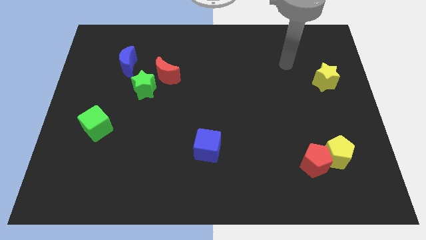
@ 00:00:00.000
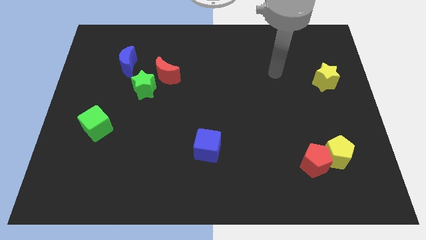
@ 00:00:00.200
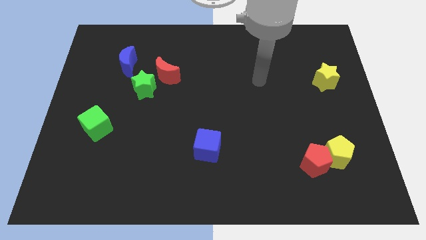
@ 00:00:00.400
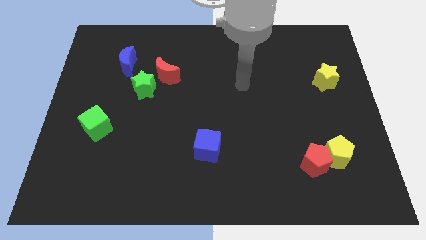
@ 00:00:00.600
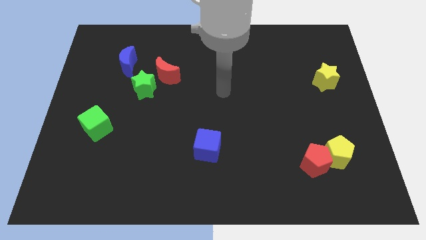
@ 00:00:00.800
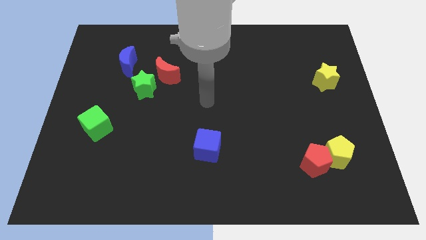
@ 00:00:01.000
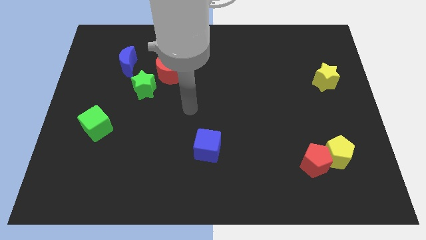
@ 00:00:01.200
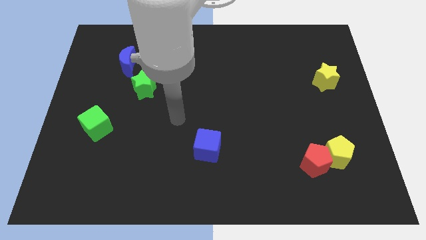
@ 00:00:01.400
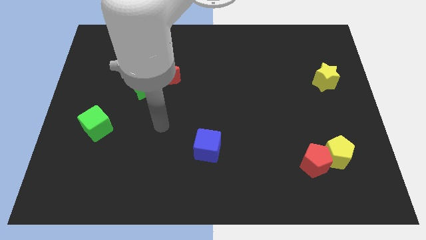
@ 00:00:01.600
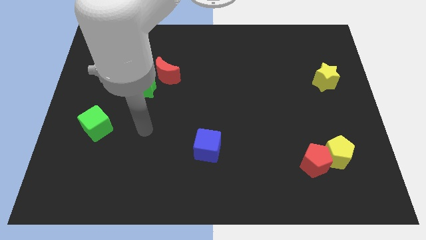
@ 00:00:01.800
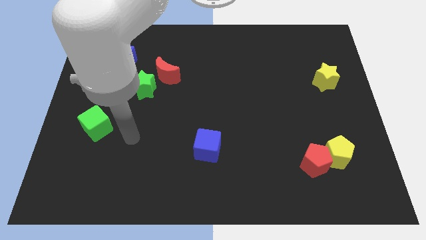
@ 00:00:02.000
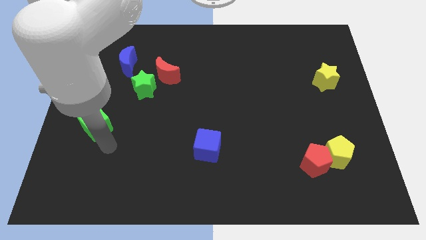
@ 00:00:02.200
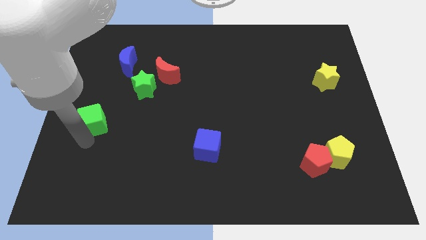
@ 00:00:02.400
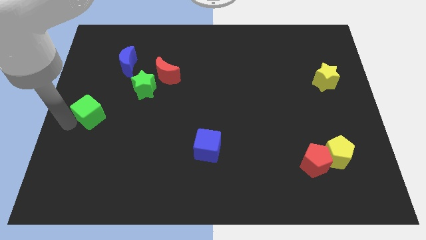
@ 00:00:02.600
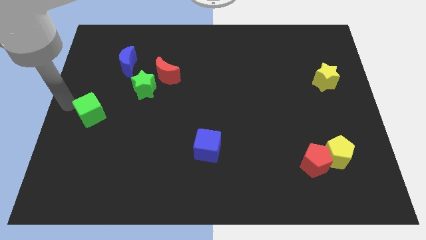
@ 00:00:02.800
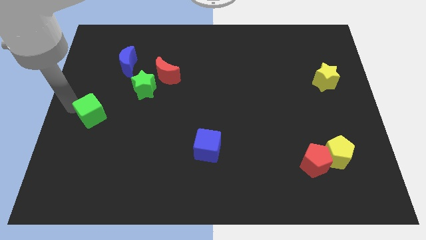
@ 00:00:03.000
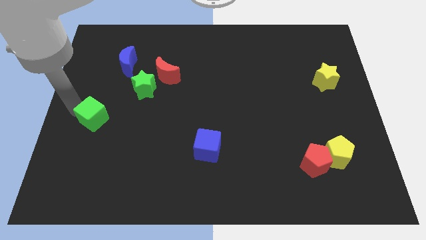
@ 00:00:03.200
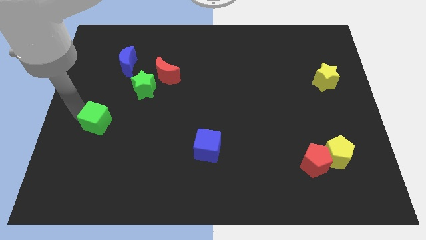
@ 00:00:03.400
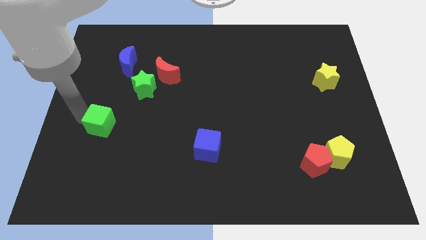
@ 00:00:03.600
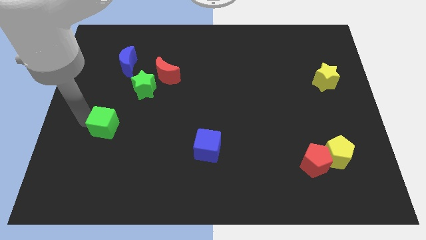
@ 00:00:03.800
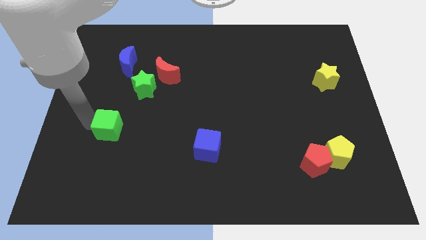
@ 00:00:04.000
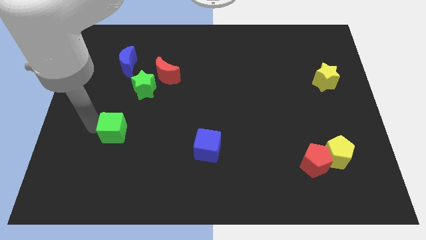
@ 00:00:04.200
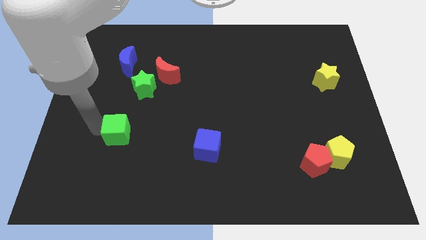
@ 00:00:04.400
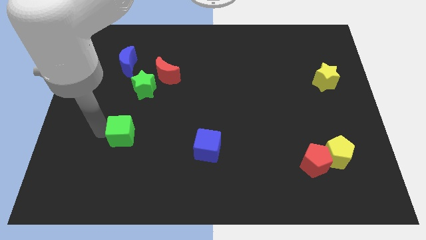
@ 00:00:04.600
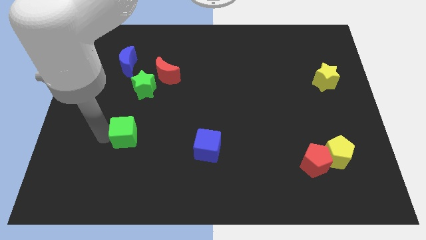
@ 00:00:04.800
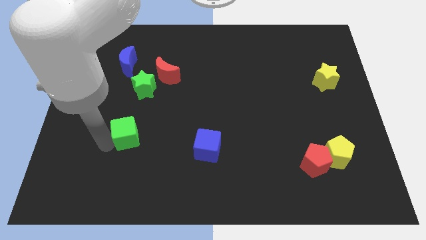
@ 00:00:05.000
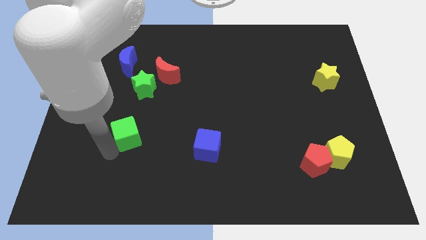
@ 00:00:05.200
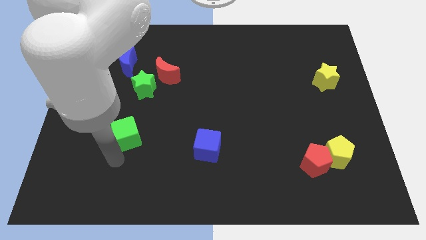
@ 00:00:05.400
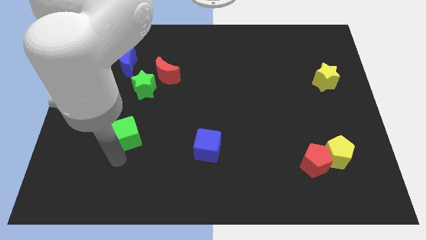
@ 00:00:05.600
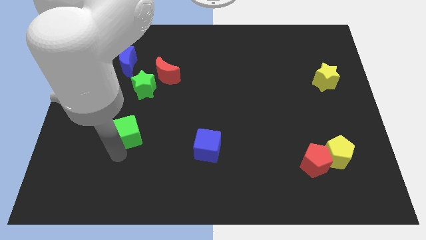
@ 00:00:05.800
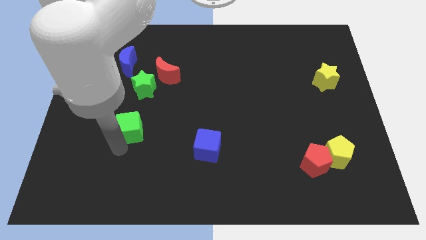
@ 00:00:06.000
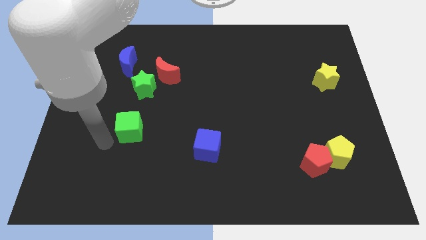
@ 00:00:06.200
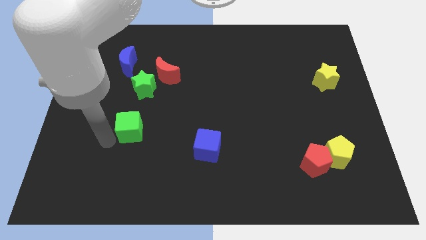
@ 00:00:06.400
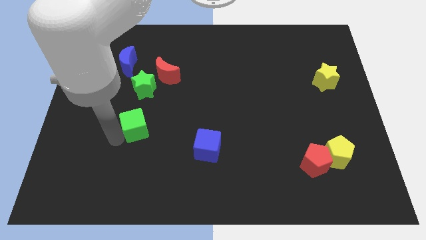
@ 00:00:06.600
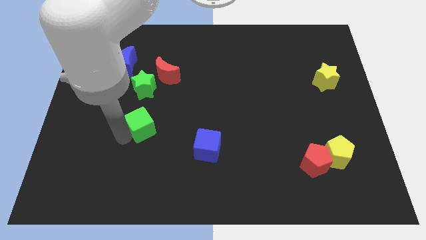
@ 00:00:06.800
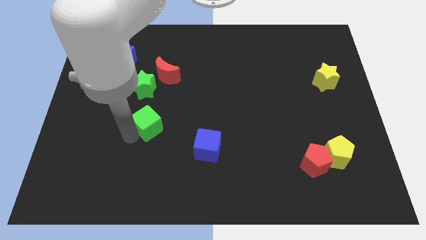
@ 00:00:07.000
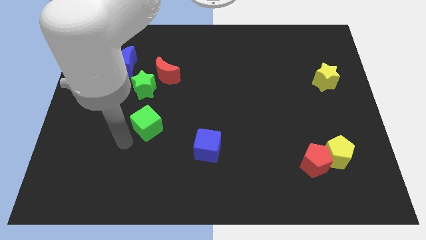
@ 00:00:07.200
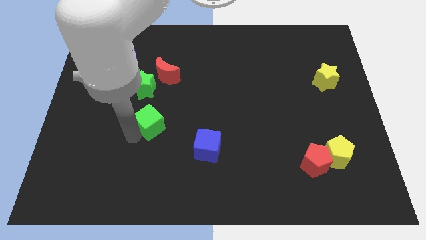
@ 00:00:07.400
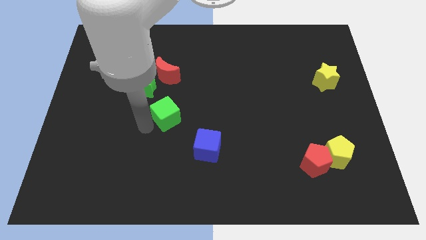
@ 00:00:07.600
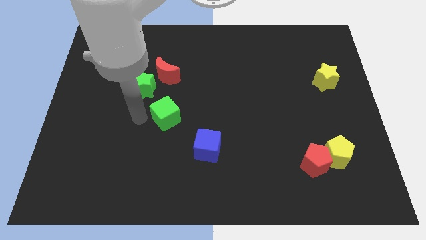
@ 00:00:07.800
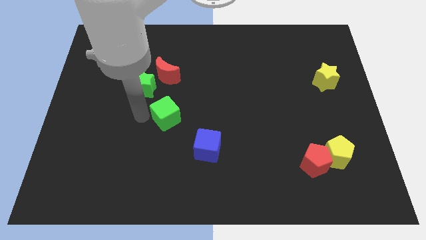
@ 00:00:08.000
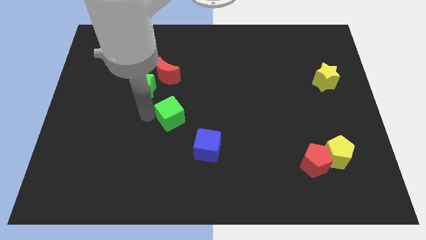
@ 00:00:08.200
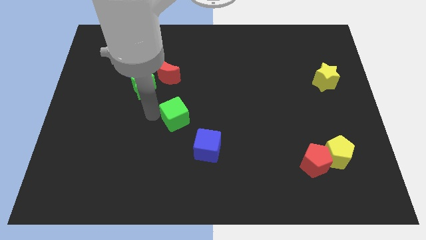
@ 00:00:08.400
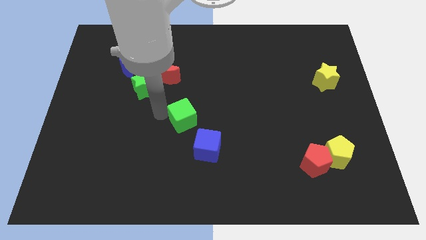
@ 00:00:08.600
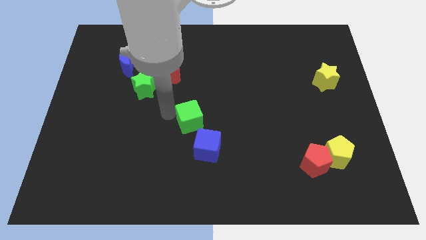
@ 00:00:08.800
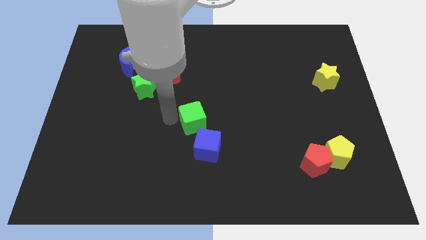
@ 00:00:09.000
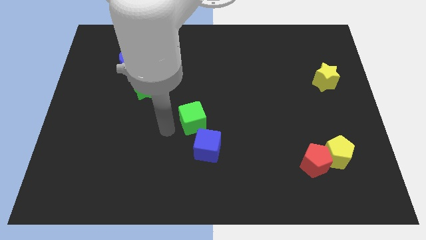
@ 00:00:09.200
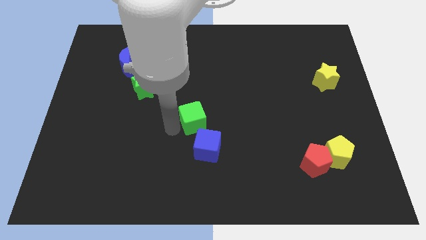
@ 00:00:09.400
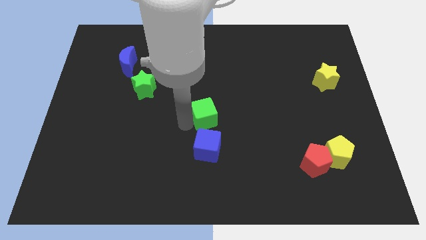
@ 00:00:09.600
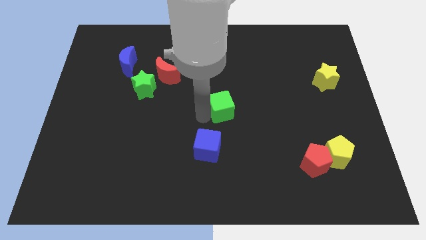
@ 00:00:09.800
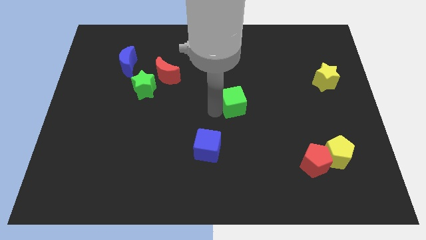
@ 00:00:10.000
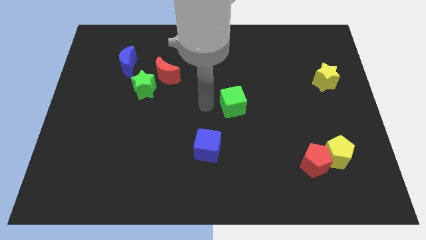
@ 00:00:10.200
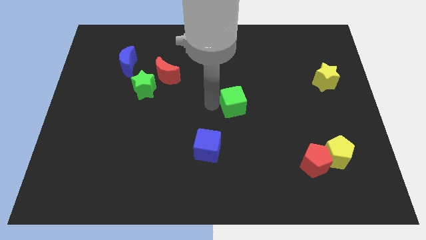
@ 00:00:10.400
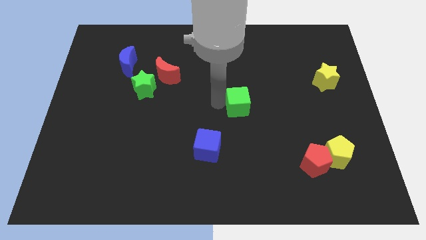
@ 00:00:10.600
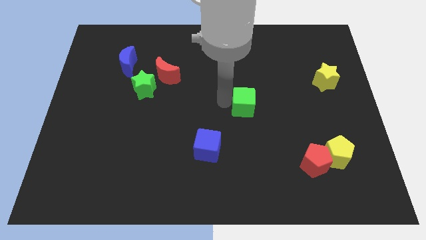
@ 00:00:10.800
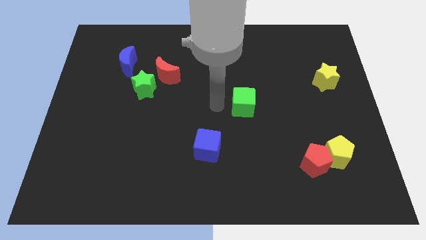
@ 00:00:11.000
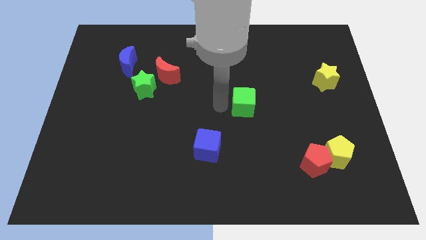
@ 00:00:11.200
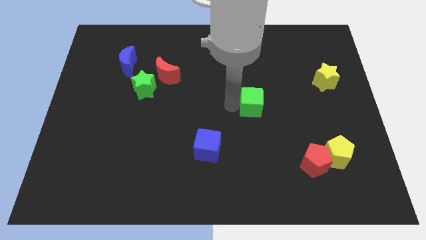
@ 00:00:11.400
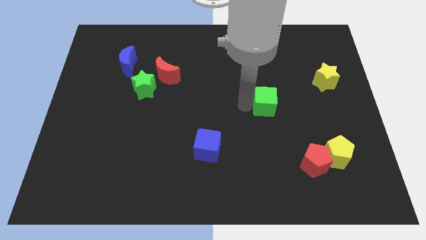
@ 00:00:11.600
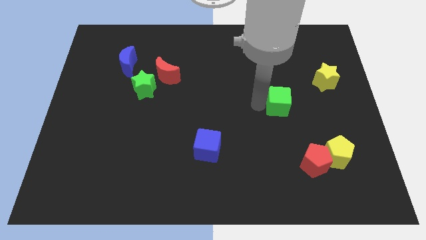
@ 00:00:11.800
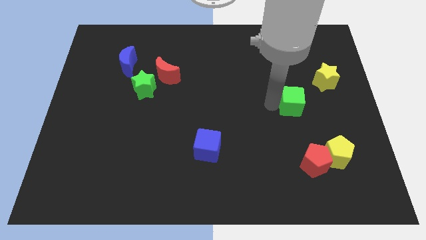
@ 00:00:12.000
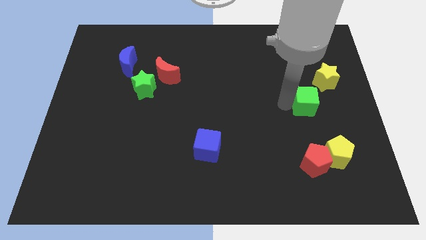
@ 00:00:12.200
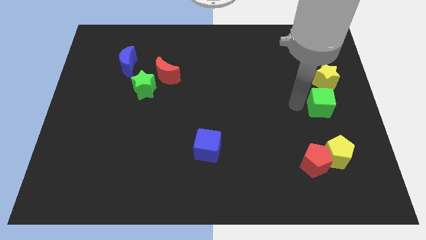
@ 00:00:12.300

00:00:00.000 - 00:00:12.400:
push the green cube to the right side of the board

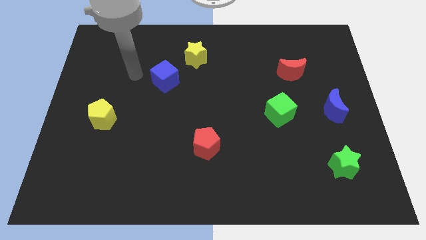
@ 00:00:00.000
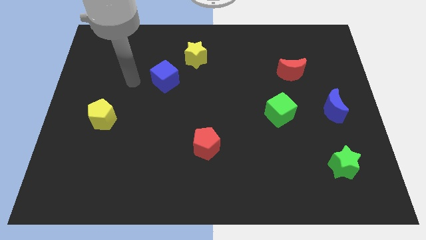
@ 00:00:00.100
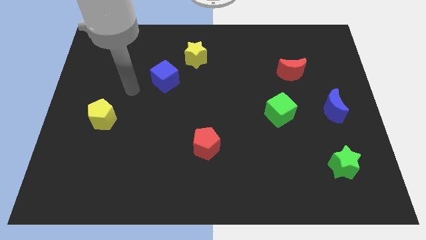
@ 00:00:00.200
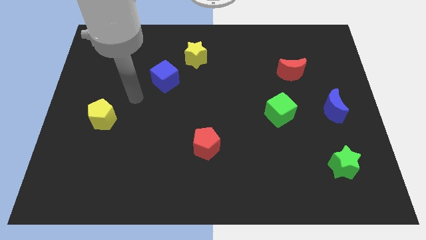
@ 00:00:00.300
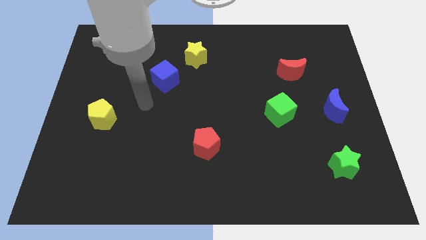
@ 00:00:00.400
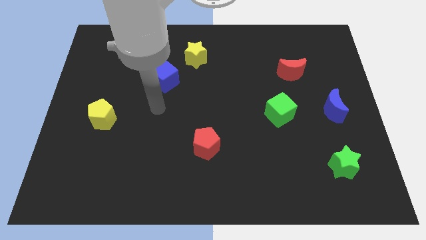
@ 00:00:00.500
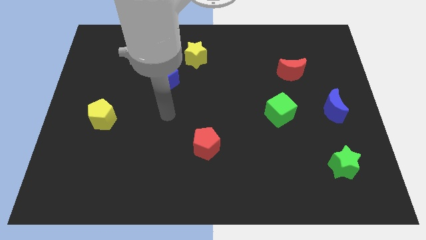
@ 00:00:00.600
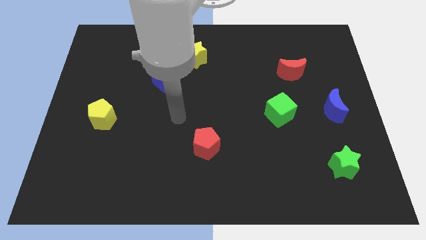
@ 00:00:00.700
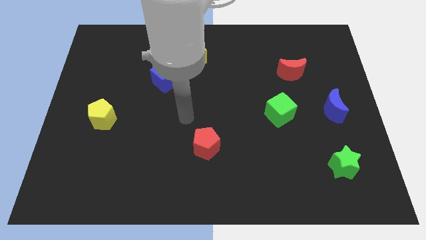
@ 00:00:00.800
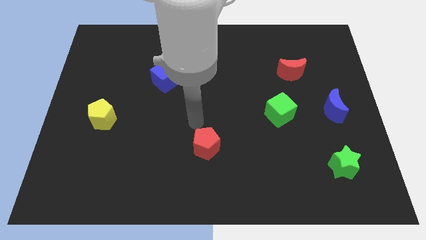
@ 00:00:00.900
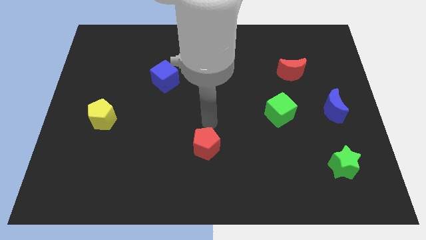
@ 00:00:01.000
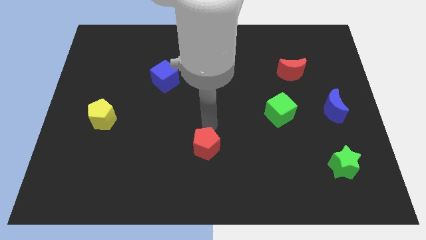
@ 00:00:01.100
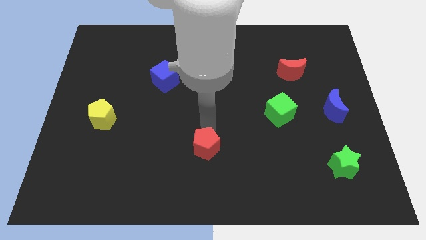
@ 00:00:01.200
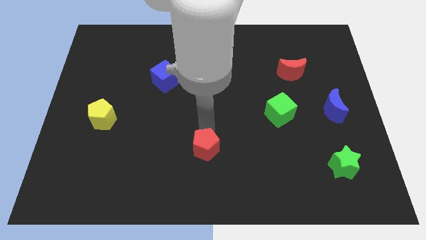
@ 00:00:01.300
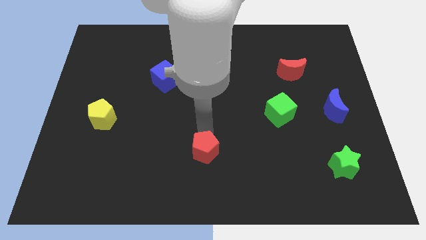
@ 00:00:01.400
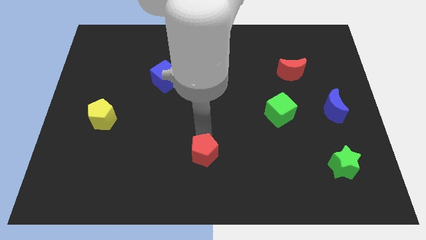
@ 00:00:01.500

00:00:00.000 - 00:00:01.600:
move the red pentagon to the bottom side
